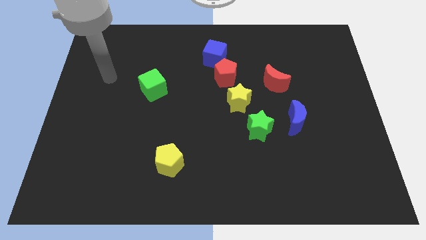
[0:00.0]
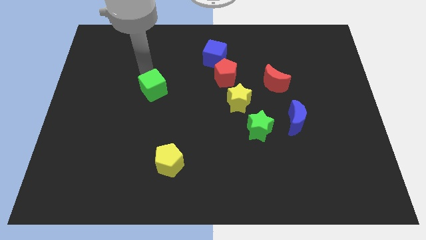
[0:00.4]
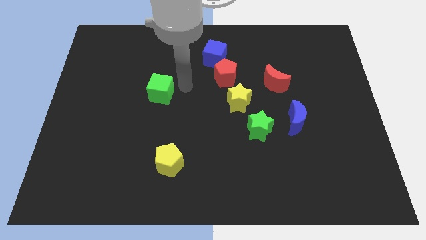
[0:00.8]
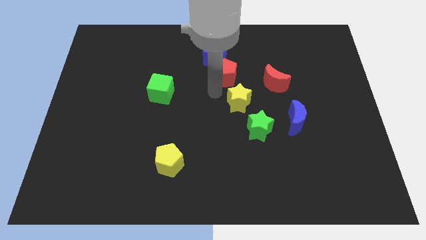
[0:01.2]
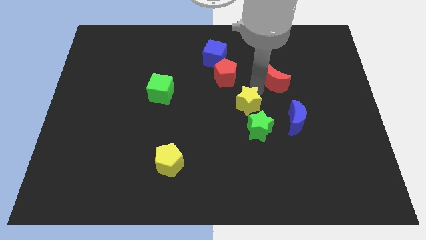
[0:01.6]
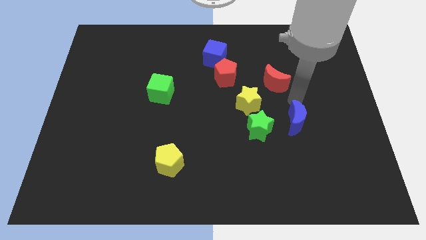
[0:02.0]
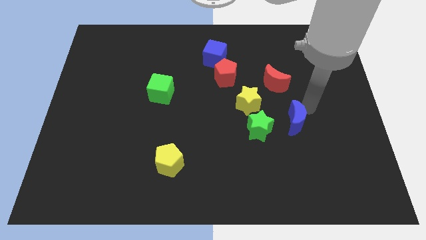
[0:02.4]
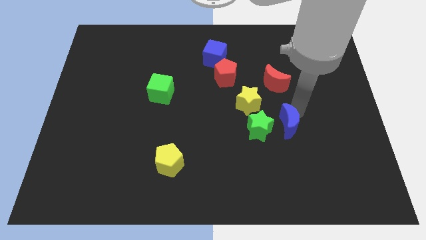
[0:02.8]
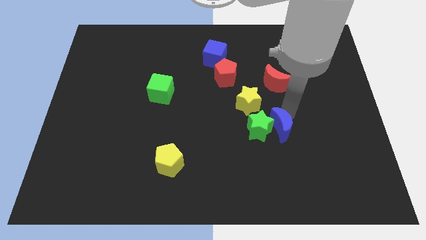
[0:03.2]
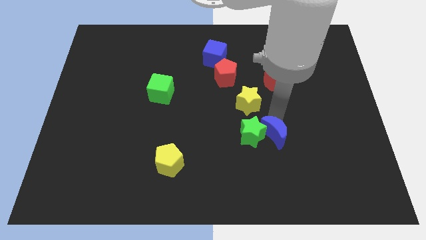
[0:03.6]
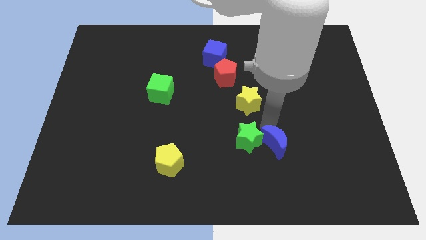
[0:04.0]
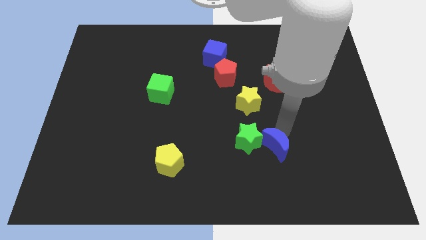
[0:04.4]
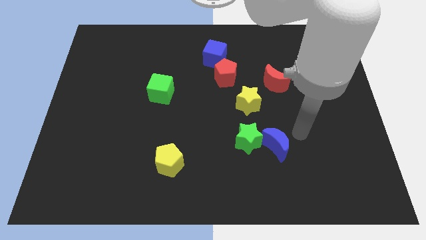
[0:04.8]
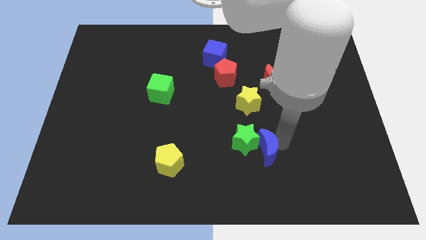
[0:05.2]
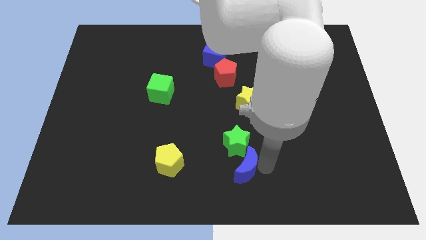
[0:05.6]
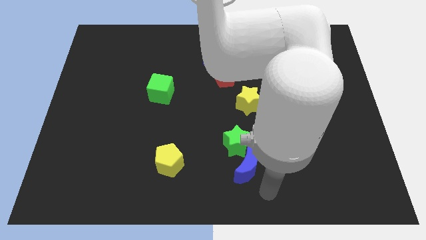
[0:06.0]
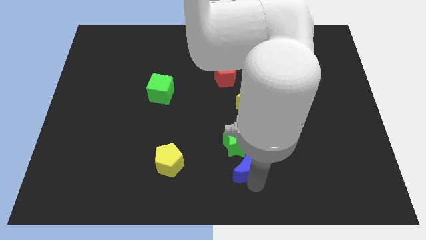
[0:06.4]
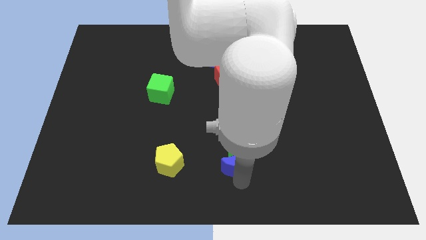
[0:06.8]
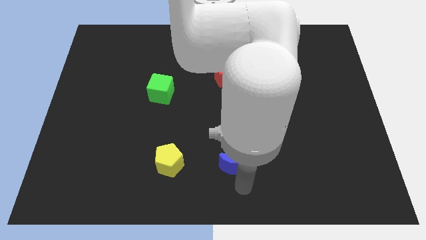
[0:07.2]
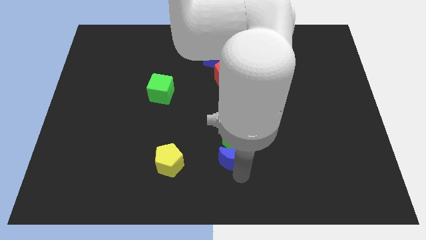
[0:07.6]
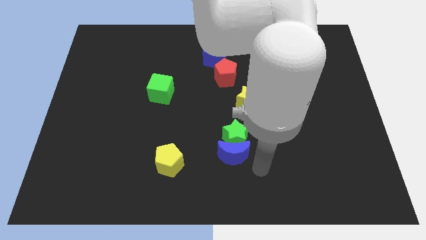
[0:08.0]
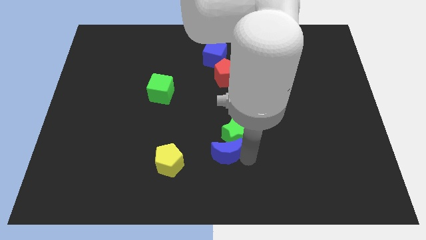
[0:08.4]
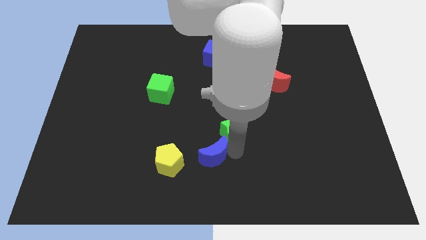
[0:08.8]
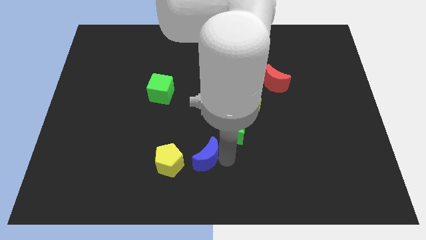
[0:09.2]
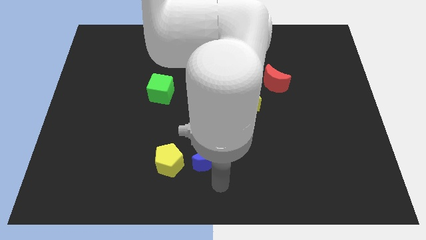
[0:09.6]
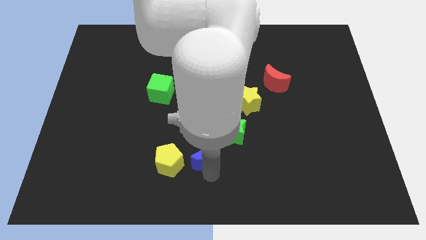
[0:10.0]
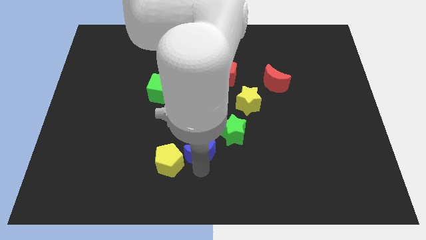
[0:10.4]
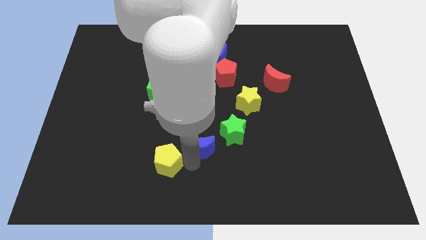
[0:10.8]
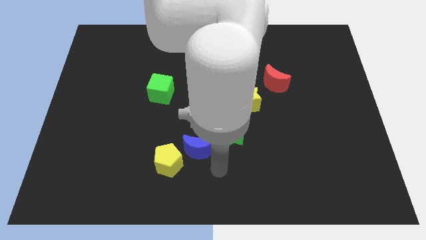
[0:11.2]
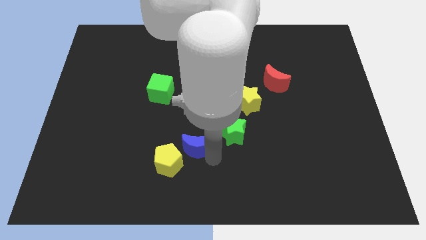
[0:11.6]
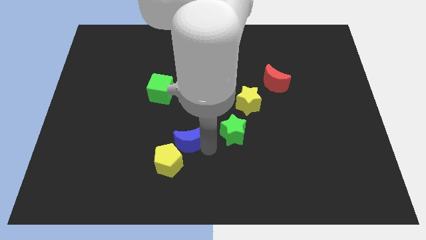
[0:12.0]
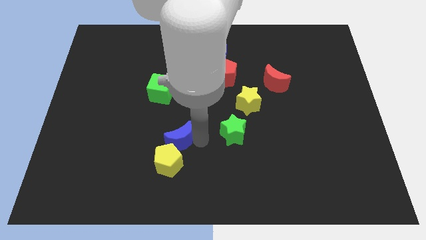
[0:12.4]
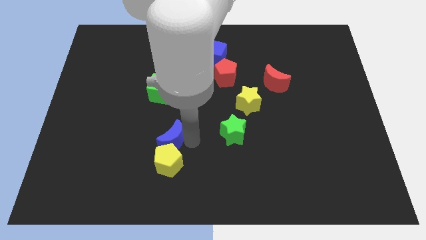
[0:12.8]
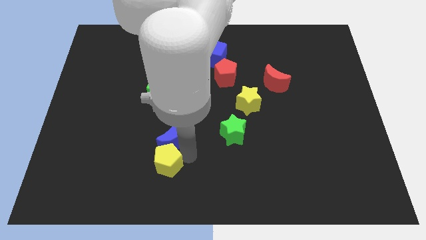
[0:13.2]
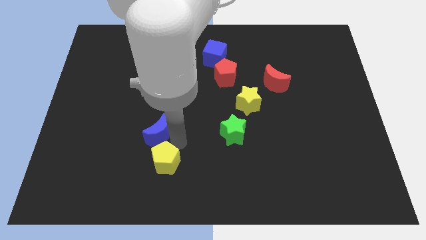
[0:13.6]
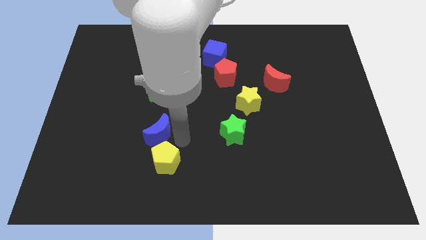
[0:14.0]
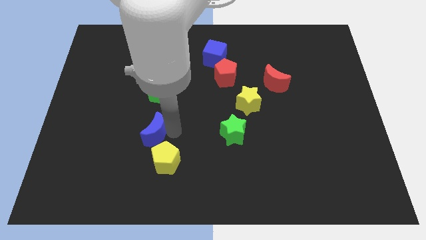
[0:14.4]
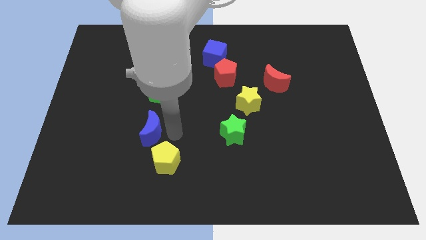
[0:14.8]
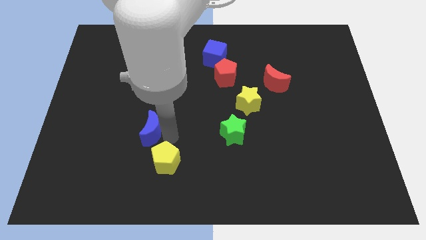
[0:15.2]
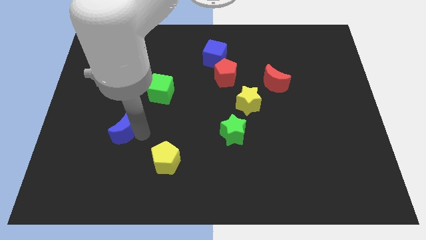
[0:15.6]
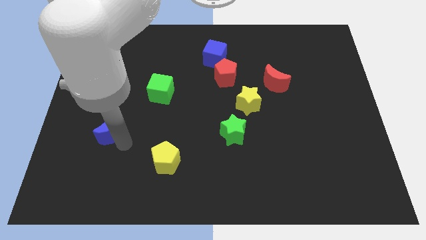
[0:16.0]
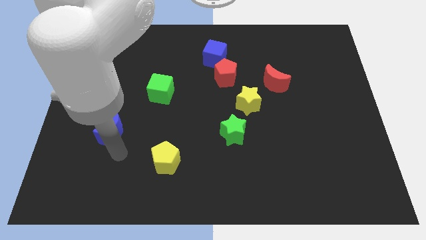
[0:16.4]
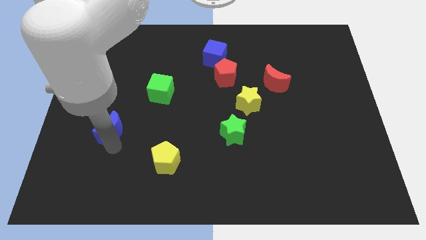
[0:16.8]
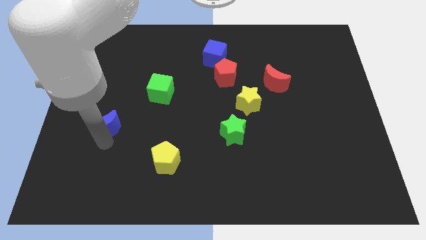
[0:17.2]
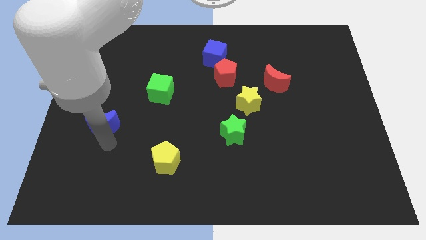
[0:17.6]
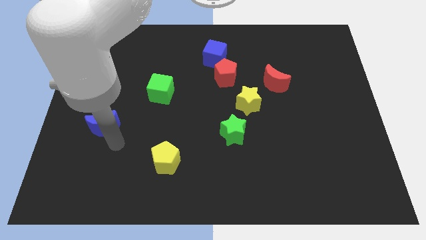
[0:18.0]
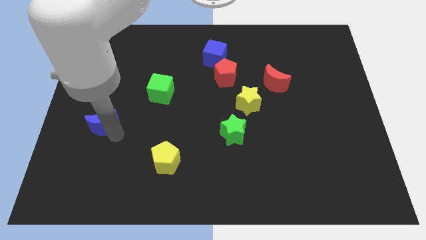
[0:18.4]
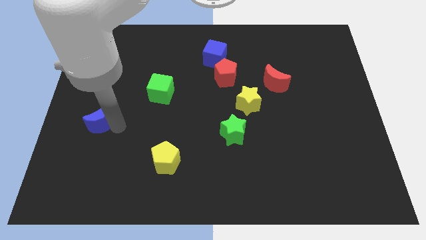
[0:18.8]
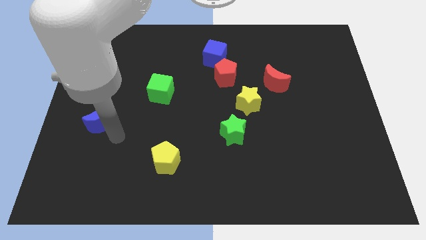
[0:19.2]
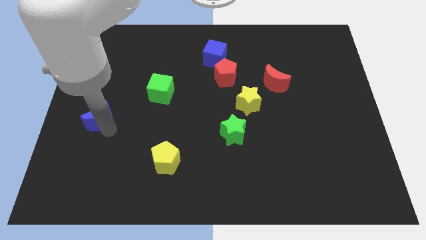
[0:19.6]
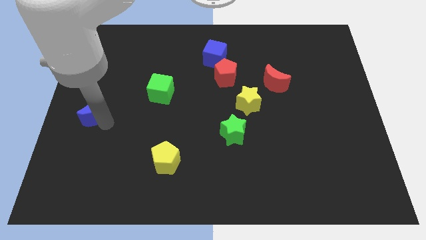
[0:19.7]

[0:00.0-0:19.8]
slide the blue moon to the left side

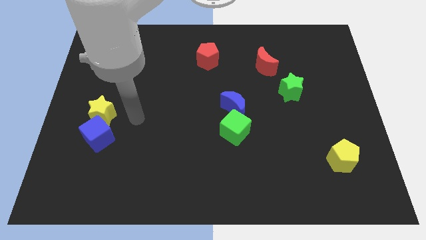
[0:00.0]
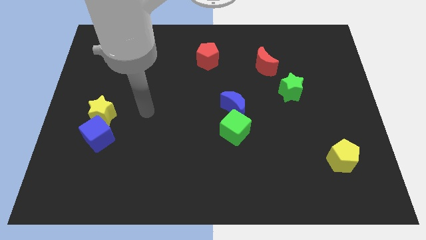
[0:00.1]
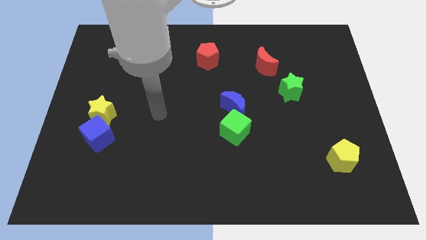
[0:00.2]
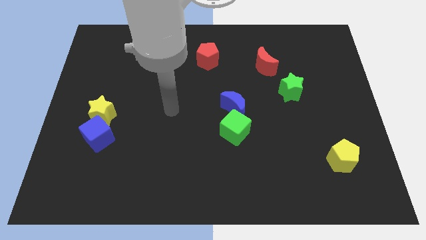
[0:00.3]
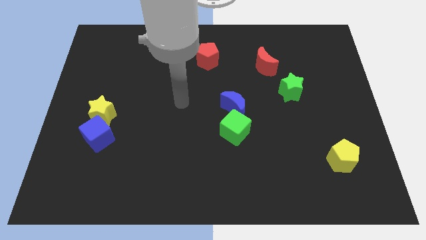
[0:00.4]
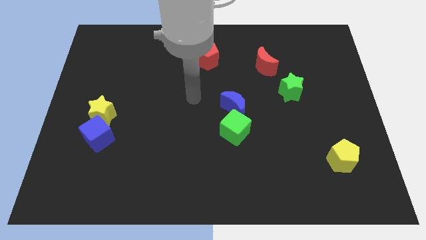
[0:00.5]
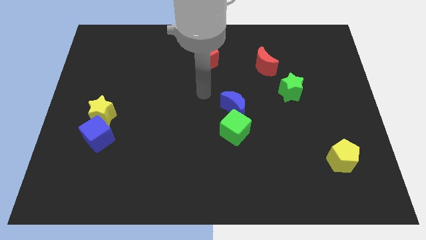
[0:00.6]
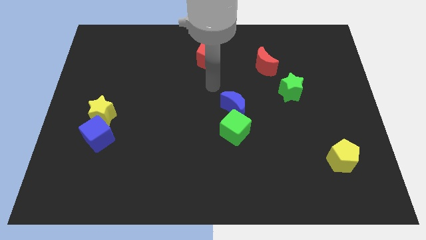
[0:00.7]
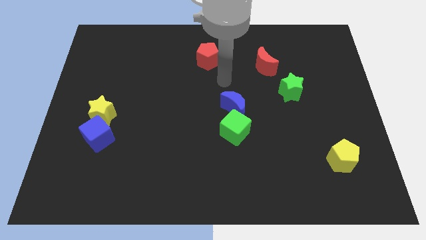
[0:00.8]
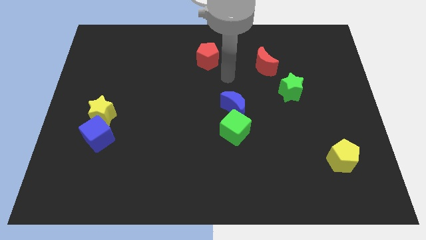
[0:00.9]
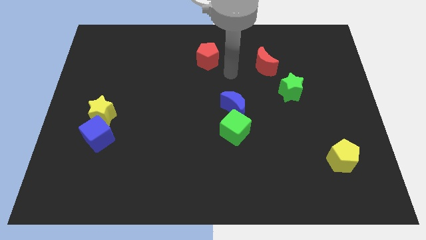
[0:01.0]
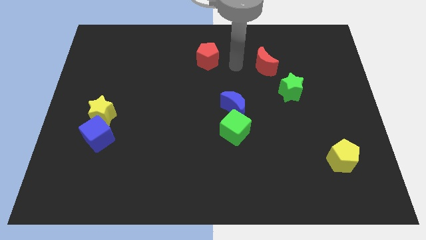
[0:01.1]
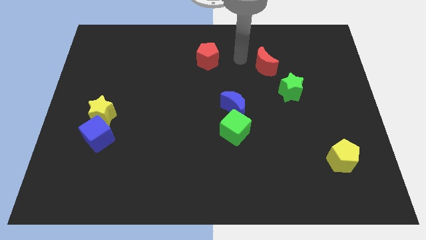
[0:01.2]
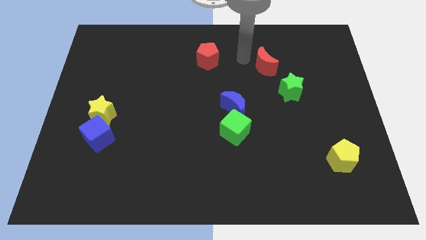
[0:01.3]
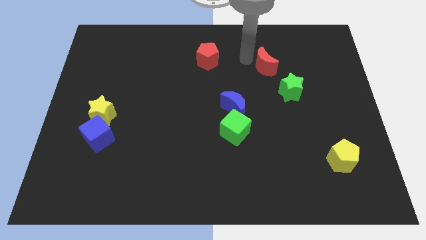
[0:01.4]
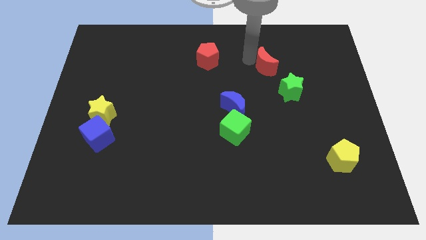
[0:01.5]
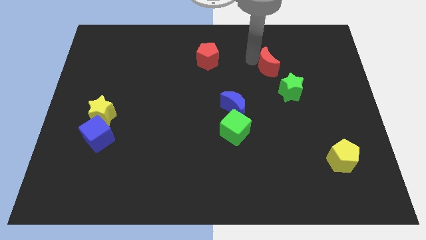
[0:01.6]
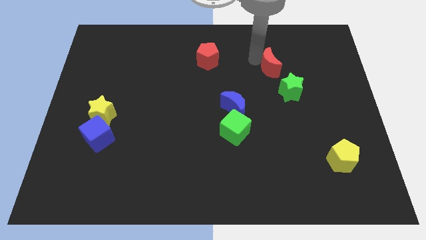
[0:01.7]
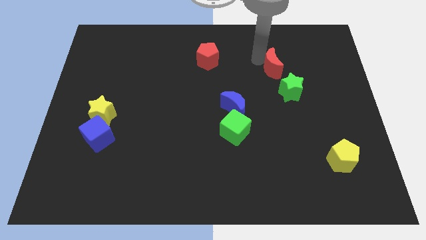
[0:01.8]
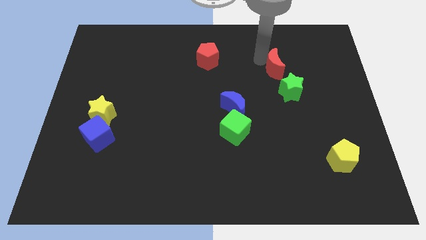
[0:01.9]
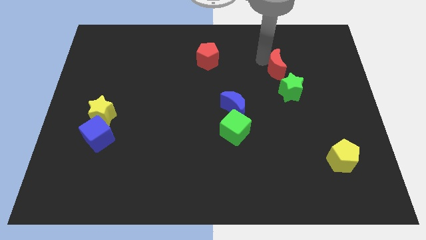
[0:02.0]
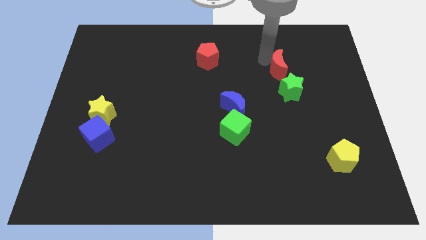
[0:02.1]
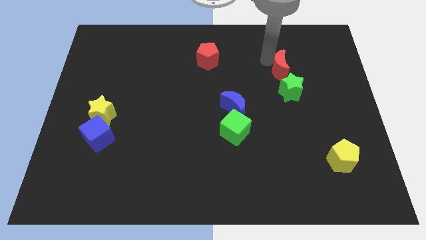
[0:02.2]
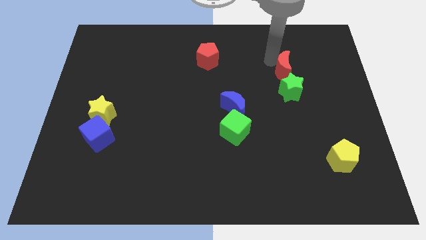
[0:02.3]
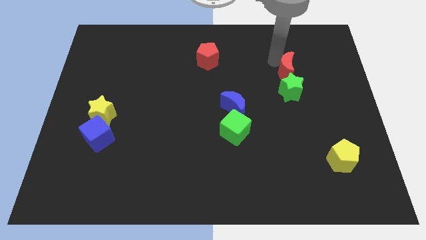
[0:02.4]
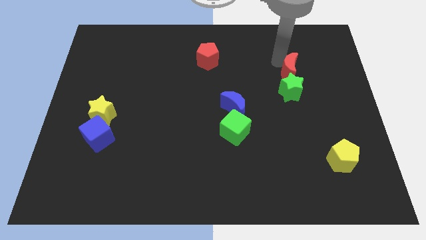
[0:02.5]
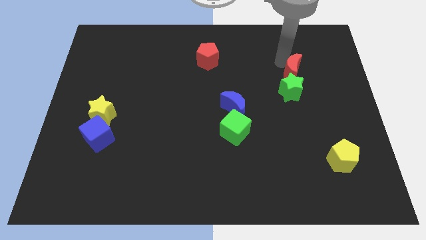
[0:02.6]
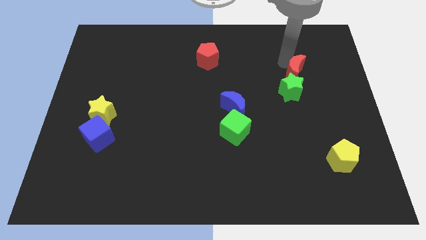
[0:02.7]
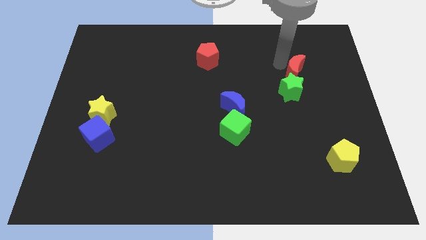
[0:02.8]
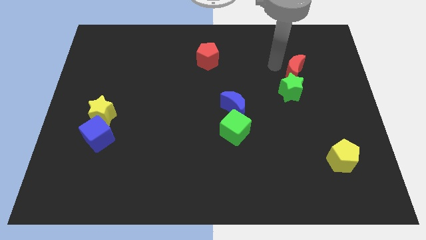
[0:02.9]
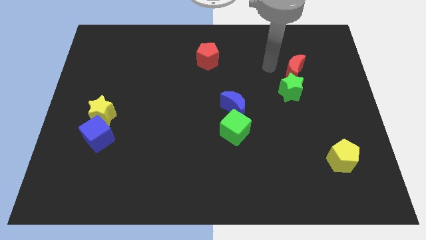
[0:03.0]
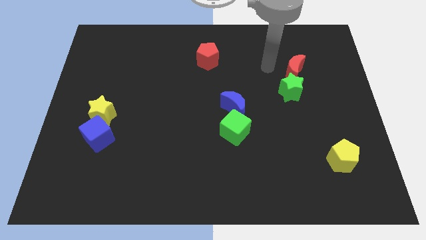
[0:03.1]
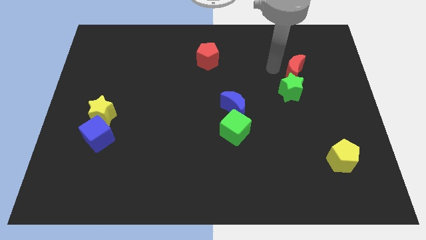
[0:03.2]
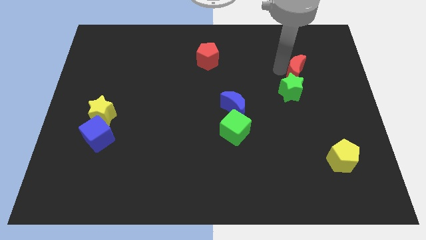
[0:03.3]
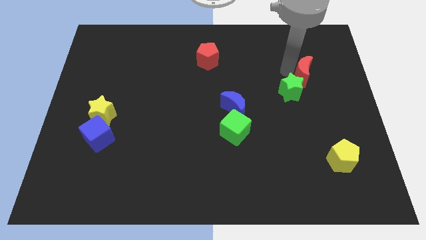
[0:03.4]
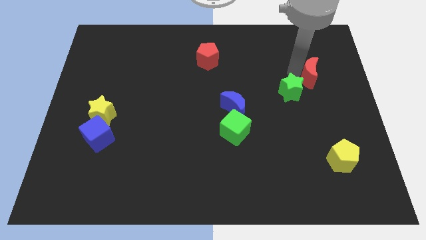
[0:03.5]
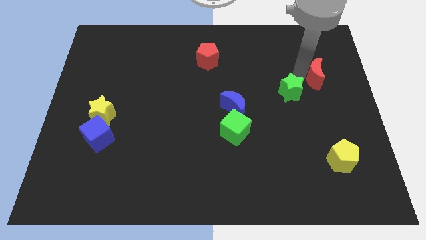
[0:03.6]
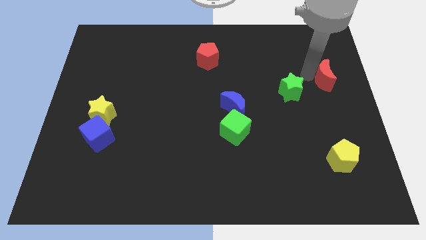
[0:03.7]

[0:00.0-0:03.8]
move the red moon to the right side of the board
